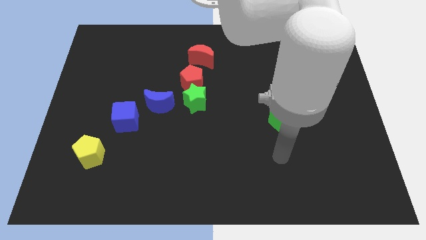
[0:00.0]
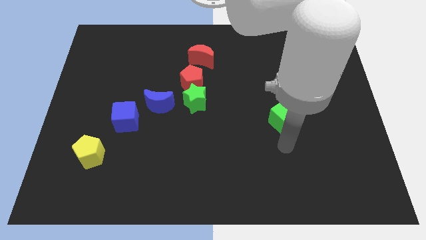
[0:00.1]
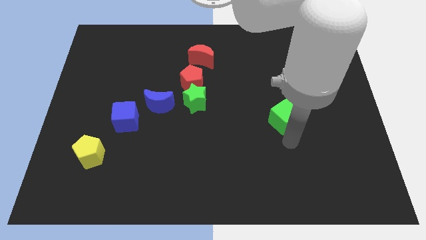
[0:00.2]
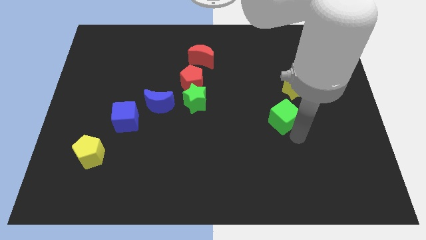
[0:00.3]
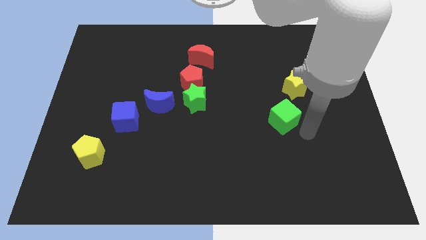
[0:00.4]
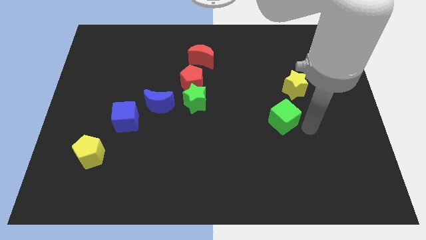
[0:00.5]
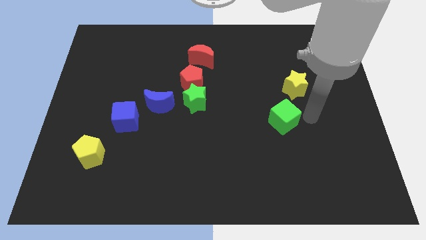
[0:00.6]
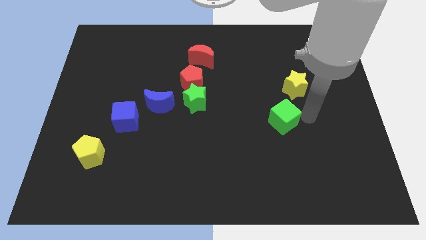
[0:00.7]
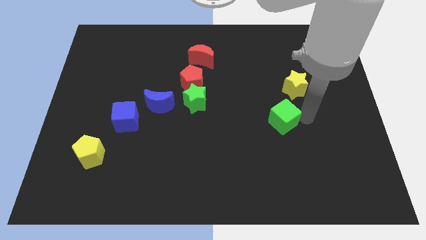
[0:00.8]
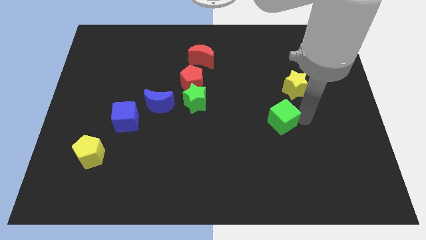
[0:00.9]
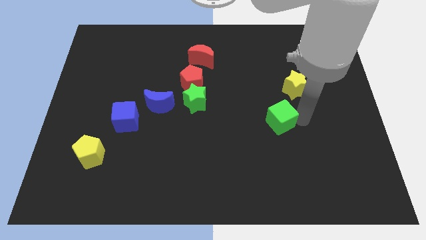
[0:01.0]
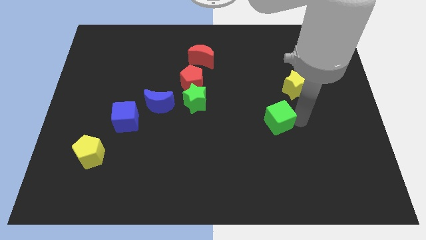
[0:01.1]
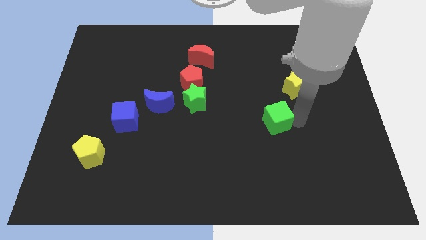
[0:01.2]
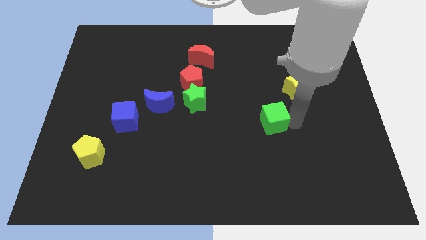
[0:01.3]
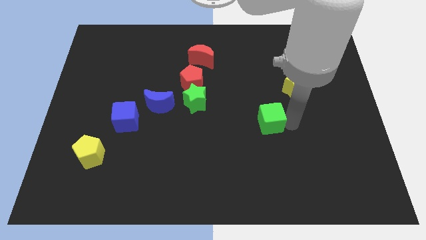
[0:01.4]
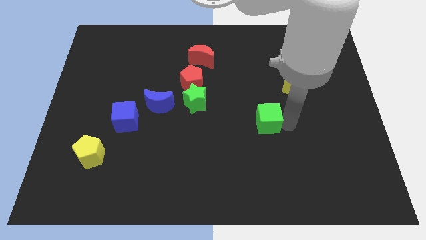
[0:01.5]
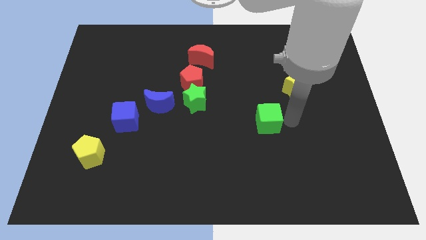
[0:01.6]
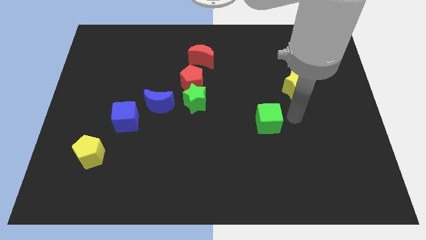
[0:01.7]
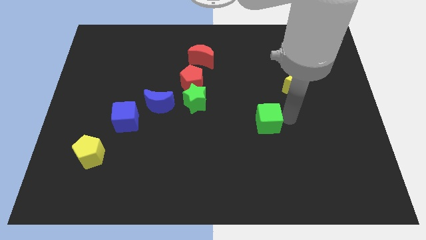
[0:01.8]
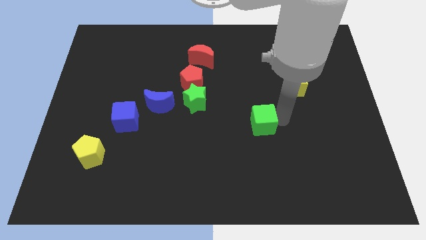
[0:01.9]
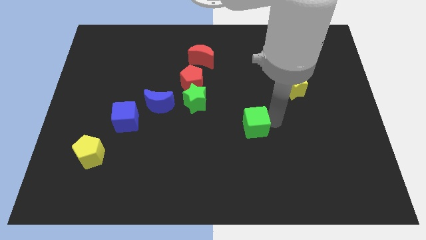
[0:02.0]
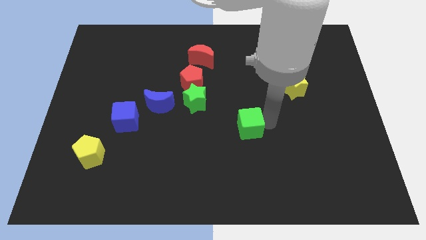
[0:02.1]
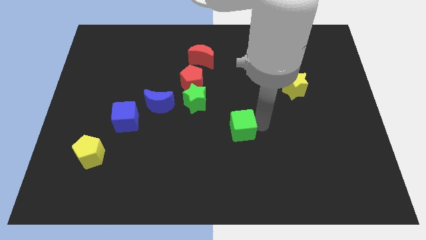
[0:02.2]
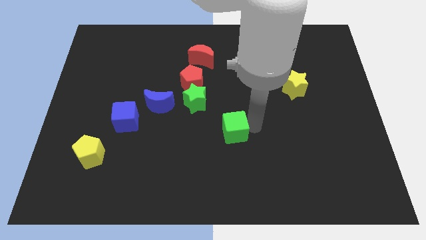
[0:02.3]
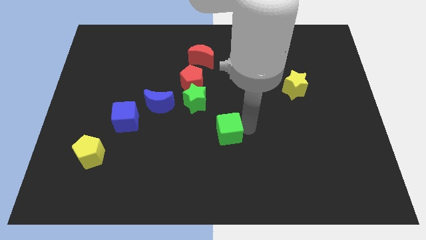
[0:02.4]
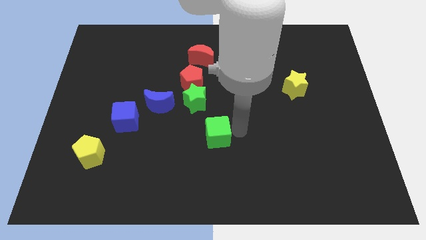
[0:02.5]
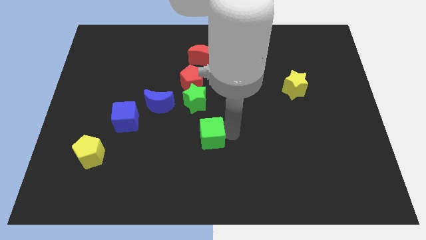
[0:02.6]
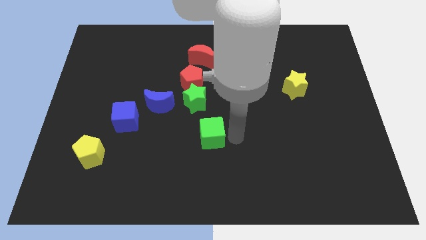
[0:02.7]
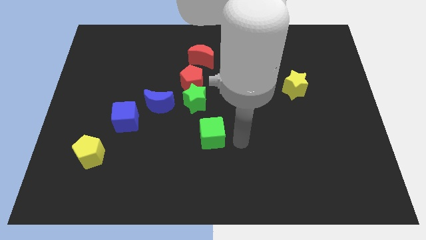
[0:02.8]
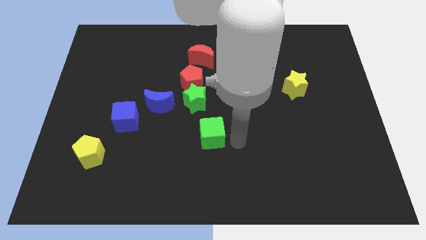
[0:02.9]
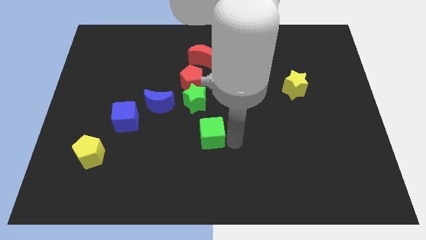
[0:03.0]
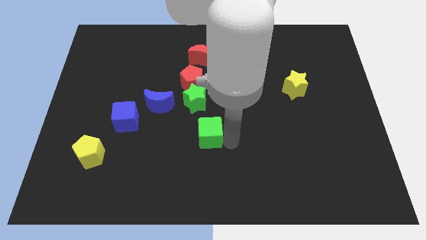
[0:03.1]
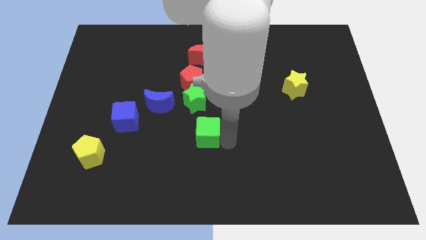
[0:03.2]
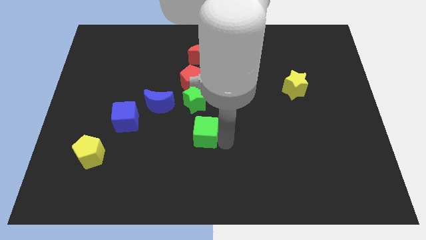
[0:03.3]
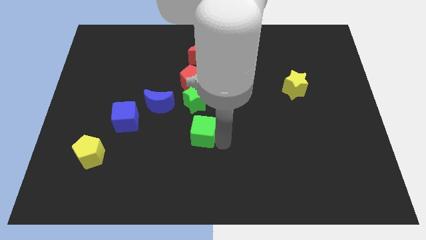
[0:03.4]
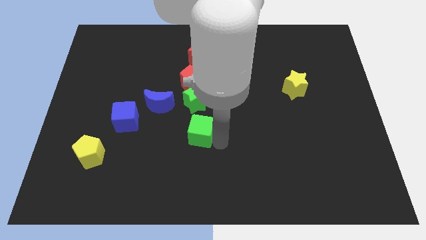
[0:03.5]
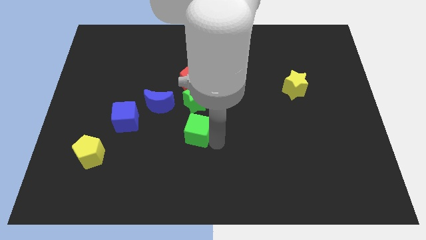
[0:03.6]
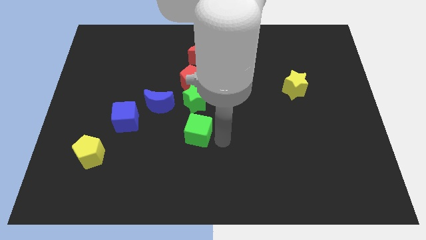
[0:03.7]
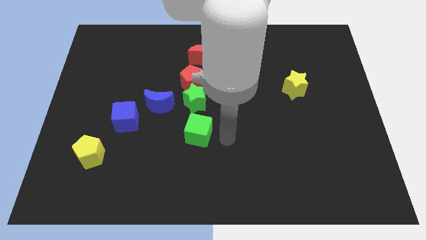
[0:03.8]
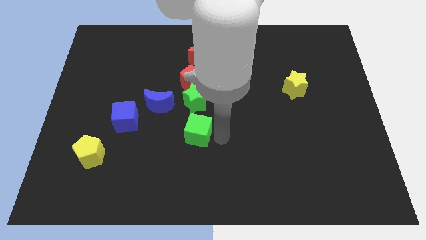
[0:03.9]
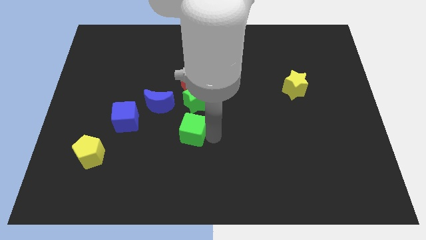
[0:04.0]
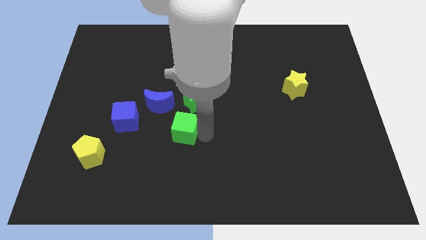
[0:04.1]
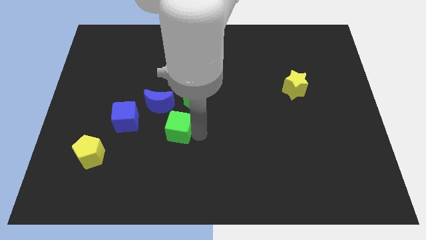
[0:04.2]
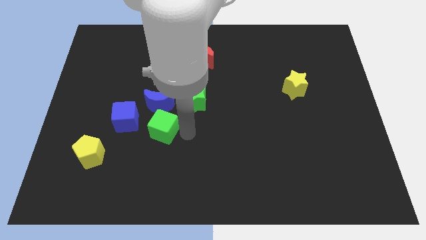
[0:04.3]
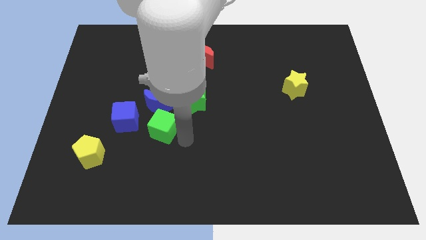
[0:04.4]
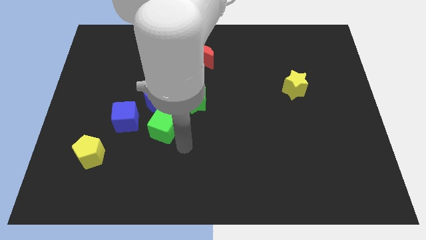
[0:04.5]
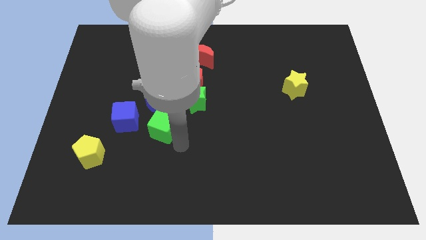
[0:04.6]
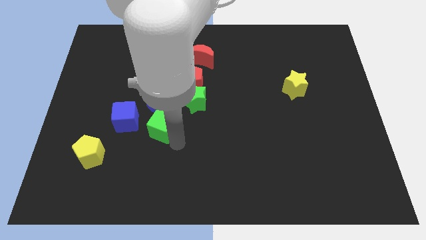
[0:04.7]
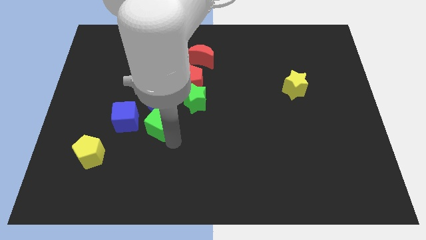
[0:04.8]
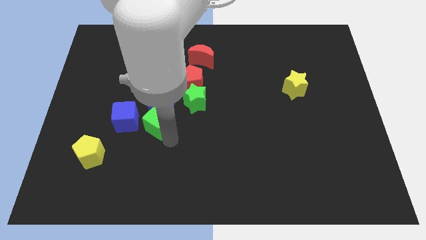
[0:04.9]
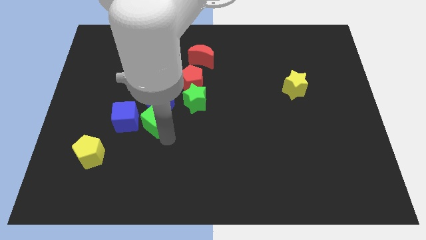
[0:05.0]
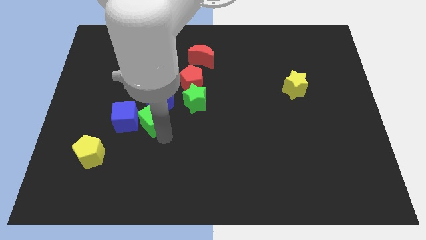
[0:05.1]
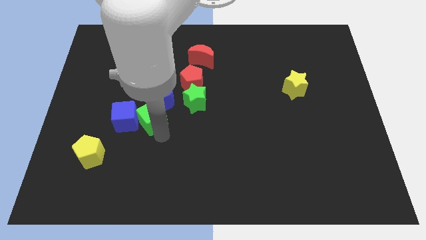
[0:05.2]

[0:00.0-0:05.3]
slide the green cube towards the blue cube

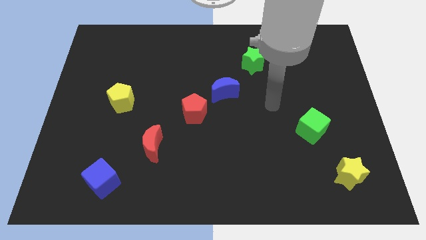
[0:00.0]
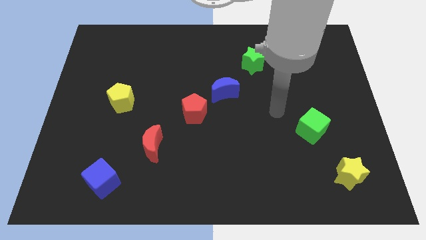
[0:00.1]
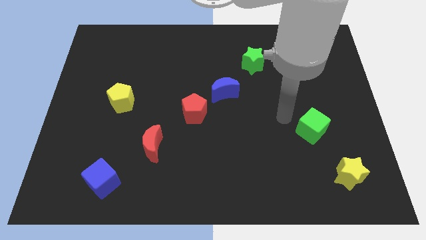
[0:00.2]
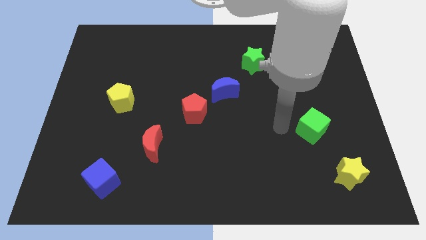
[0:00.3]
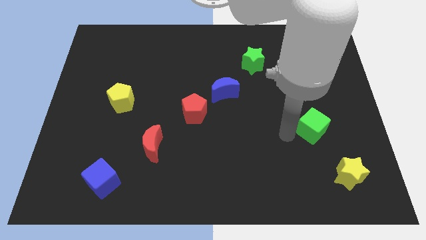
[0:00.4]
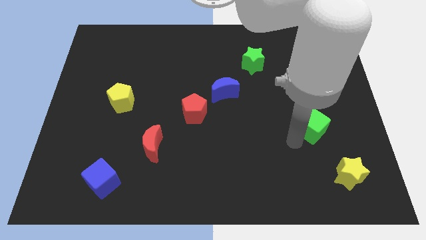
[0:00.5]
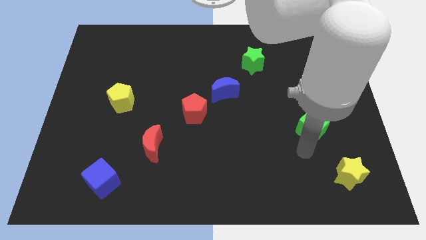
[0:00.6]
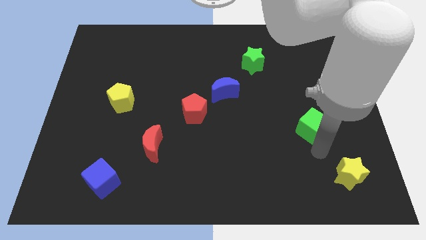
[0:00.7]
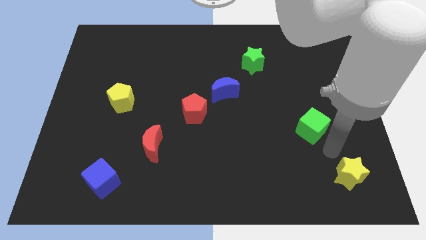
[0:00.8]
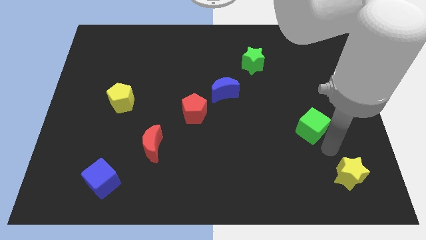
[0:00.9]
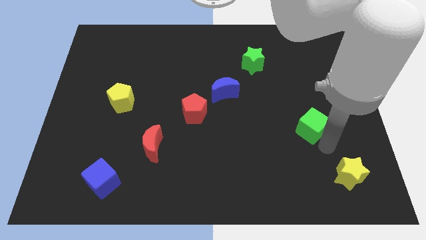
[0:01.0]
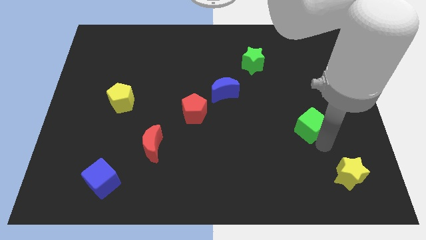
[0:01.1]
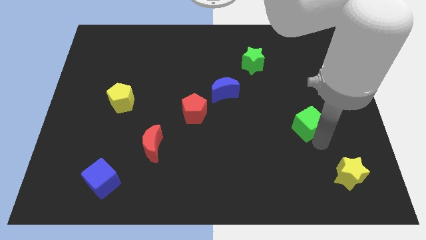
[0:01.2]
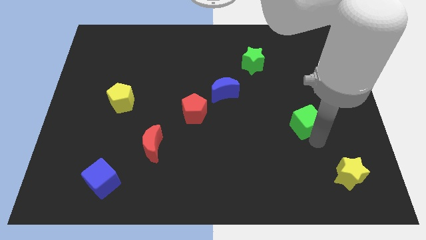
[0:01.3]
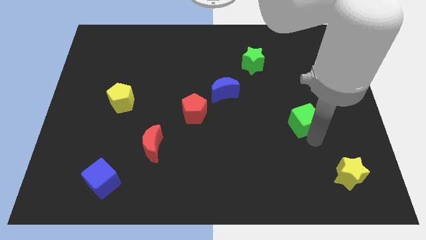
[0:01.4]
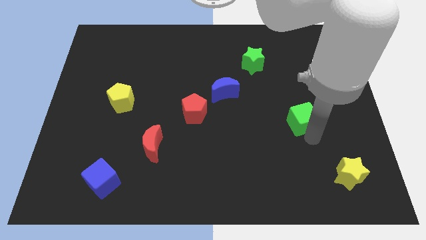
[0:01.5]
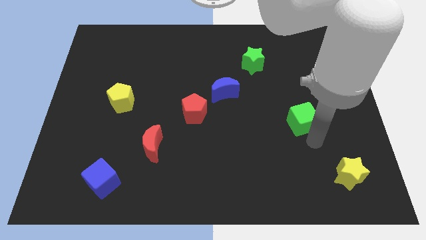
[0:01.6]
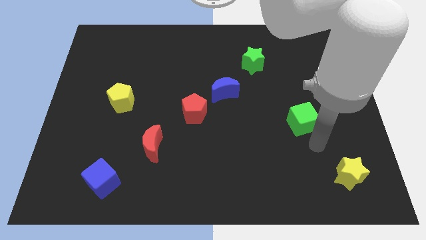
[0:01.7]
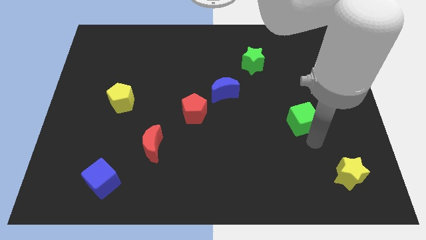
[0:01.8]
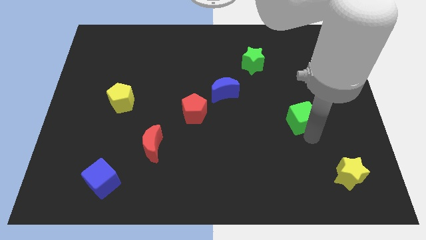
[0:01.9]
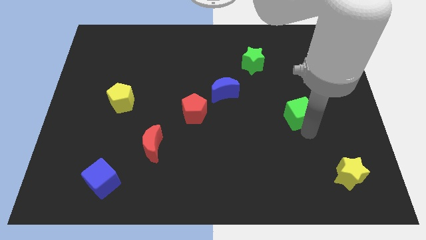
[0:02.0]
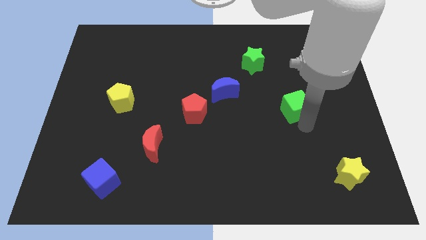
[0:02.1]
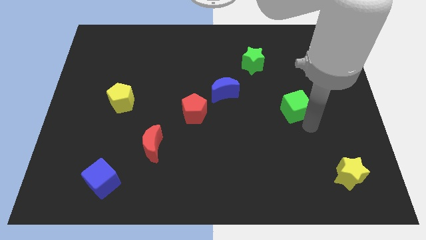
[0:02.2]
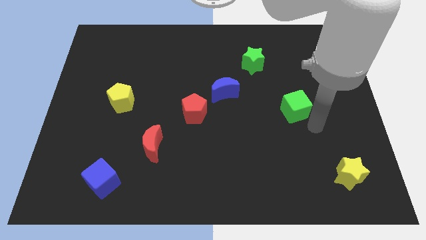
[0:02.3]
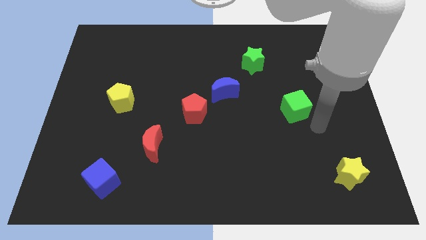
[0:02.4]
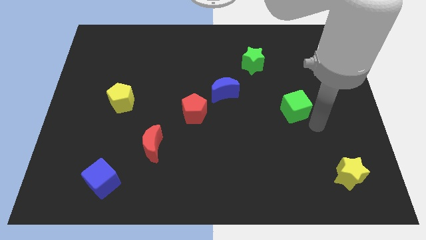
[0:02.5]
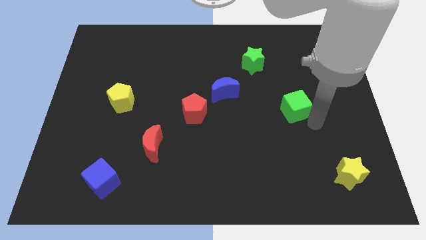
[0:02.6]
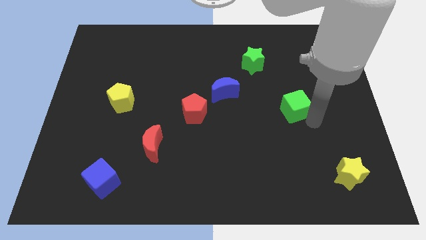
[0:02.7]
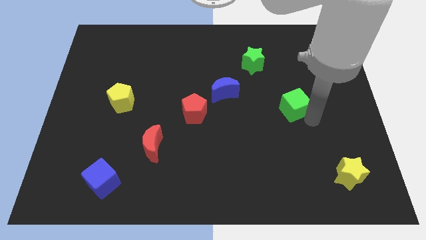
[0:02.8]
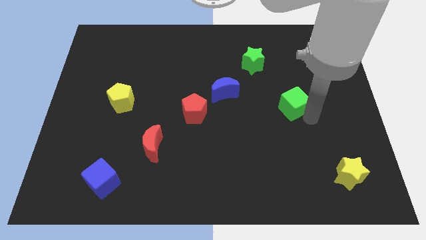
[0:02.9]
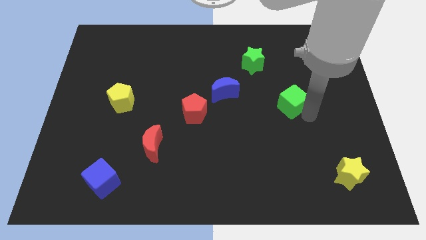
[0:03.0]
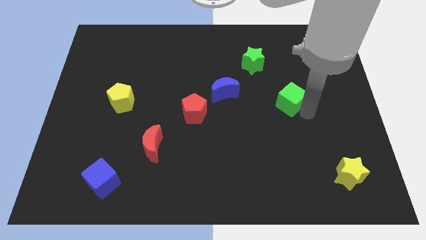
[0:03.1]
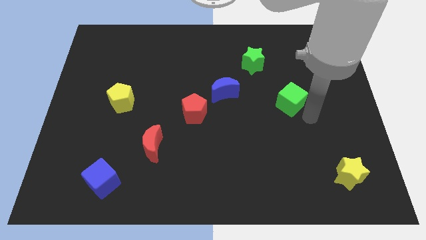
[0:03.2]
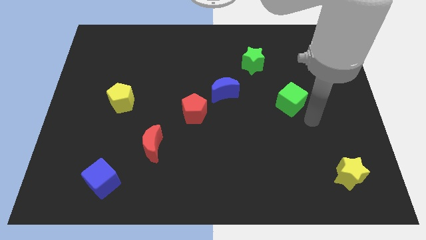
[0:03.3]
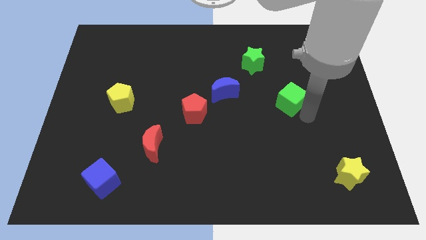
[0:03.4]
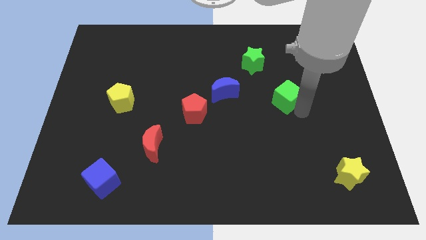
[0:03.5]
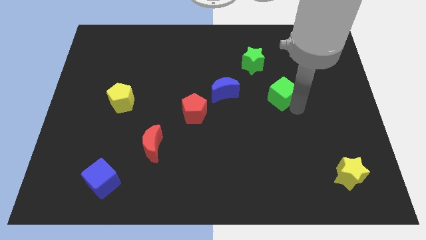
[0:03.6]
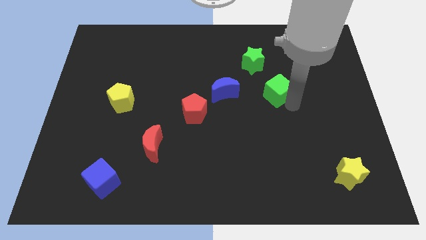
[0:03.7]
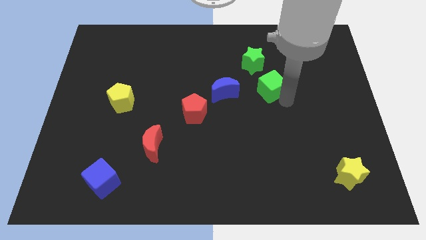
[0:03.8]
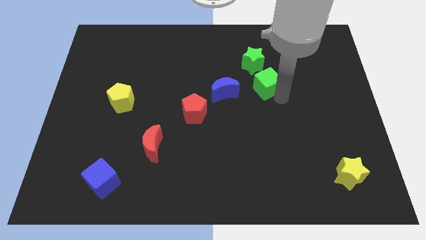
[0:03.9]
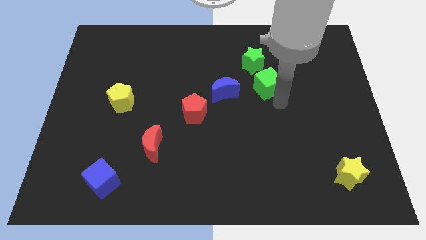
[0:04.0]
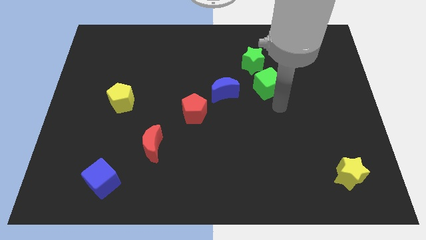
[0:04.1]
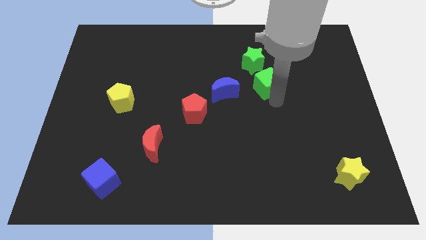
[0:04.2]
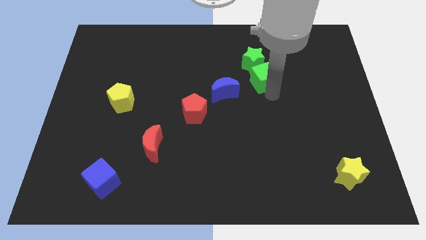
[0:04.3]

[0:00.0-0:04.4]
move the green cube towards the green star
